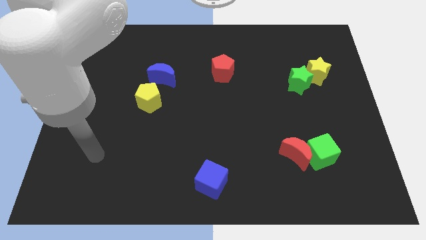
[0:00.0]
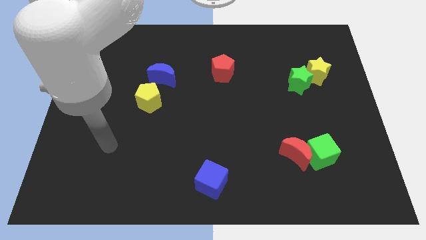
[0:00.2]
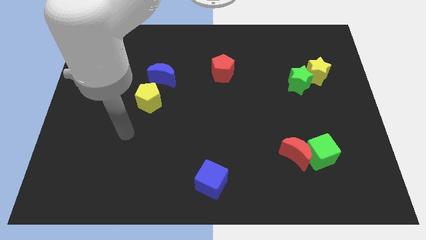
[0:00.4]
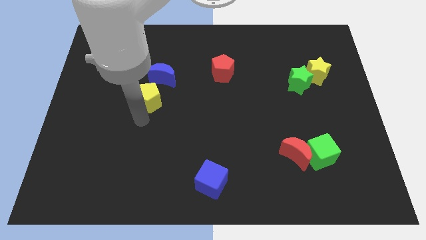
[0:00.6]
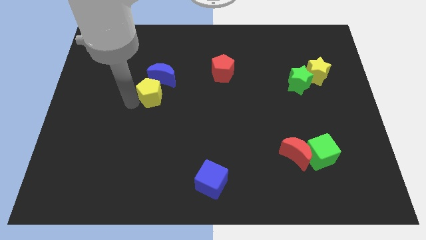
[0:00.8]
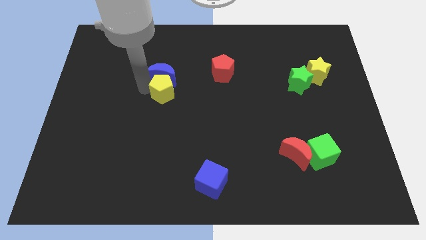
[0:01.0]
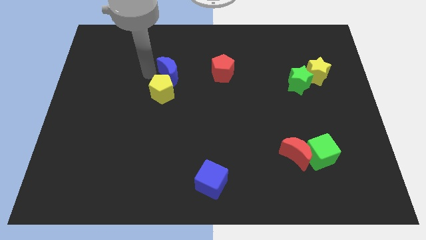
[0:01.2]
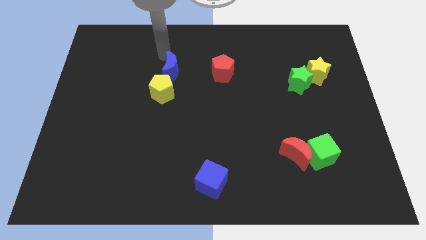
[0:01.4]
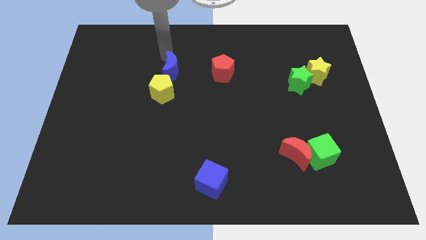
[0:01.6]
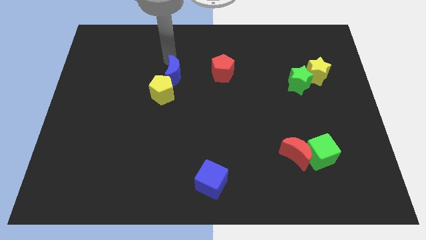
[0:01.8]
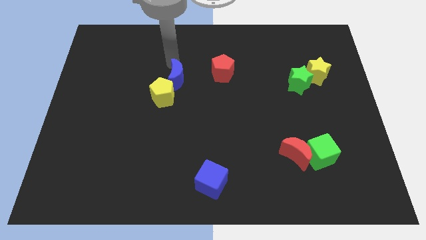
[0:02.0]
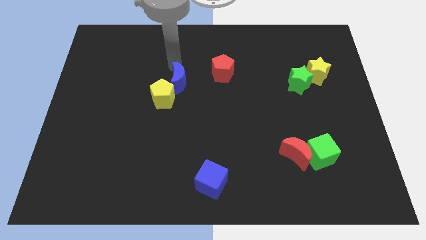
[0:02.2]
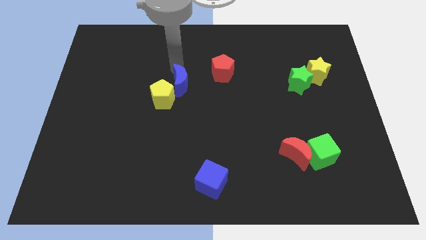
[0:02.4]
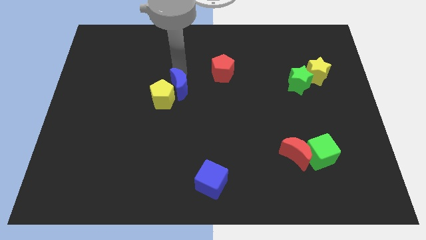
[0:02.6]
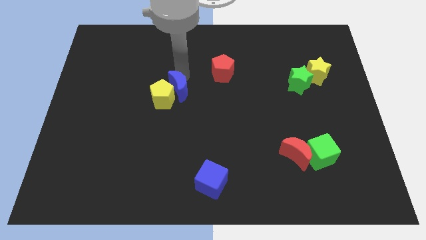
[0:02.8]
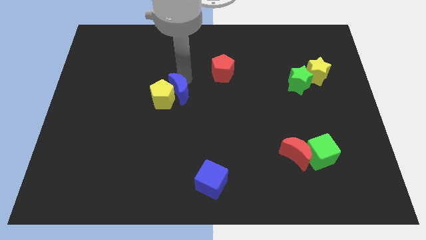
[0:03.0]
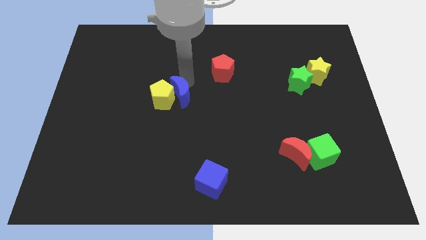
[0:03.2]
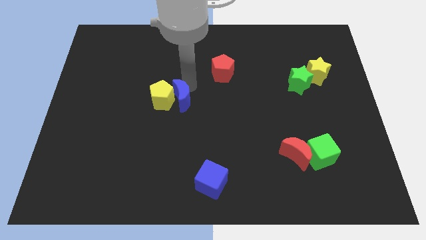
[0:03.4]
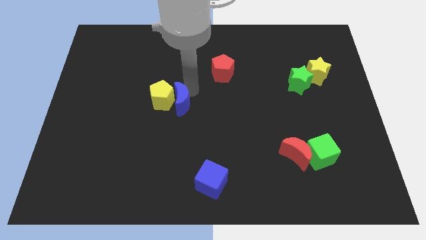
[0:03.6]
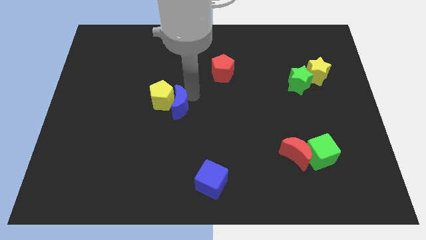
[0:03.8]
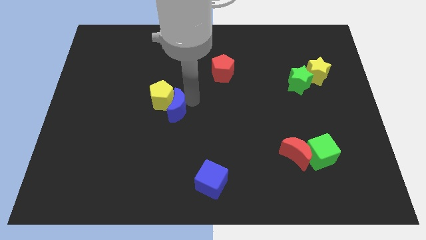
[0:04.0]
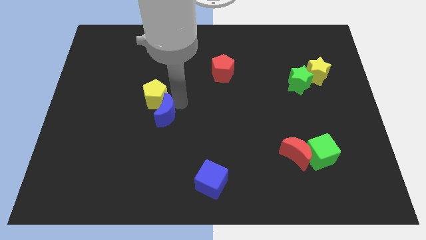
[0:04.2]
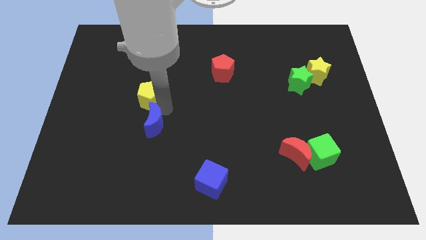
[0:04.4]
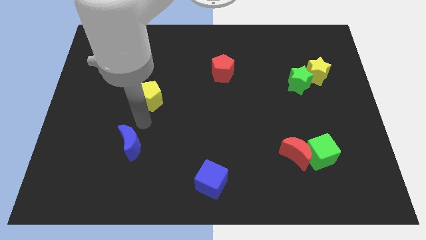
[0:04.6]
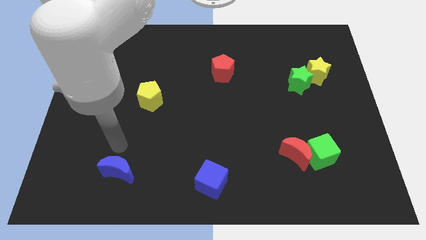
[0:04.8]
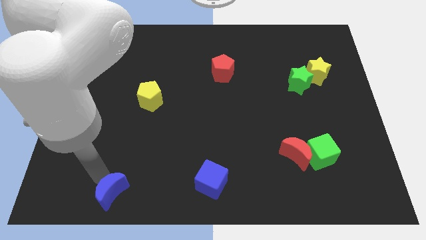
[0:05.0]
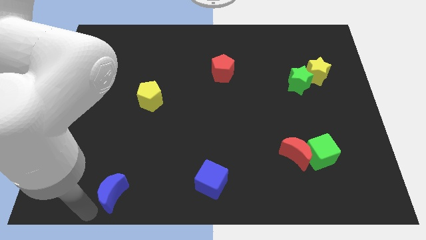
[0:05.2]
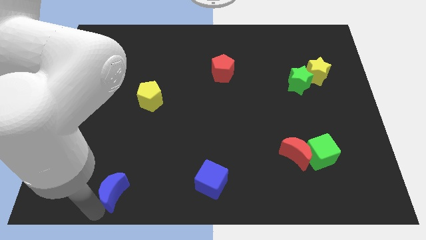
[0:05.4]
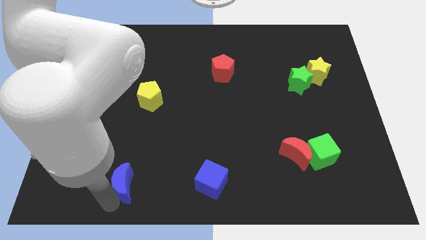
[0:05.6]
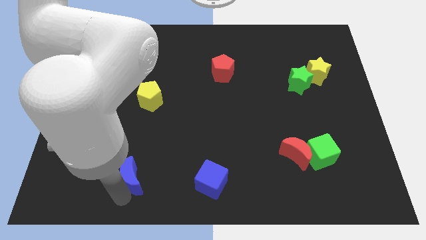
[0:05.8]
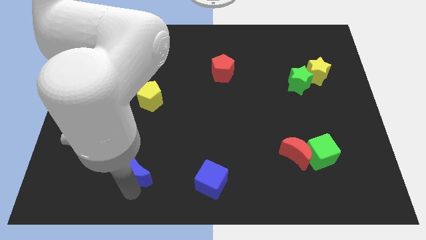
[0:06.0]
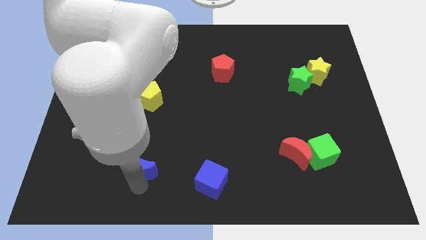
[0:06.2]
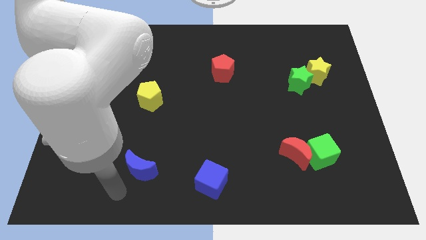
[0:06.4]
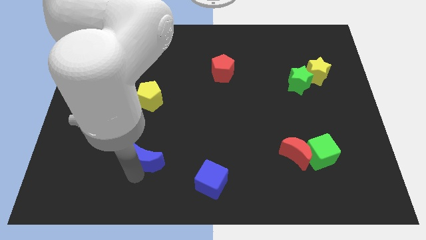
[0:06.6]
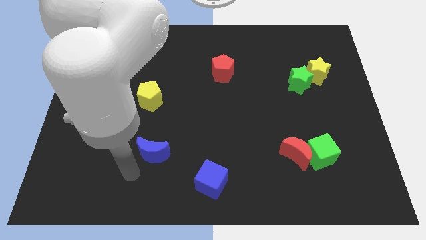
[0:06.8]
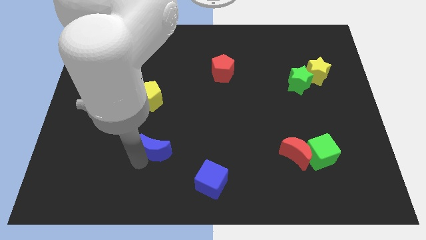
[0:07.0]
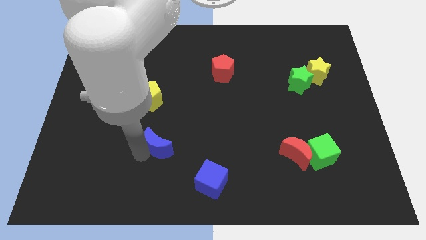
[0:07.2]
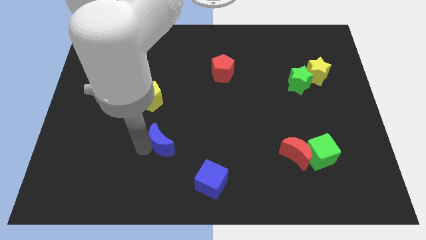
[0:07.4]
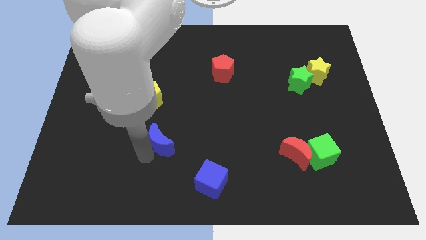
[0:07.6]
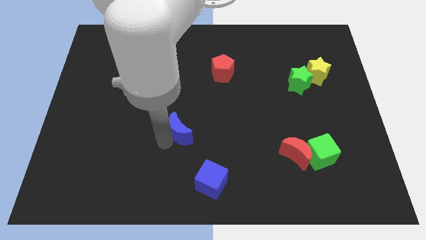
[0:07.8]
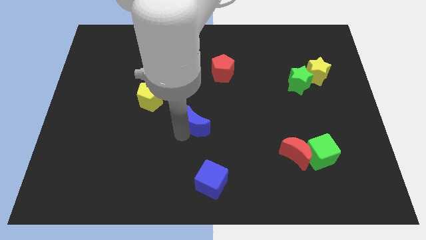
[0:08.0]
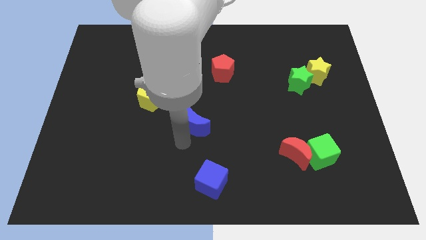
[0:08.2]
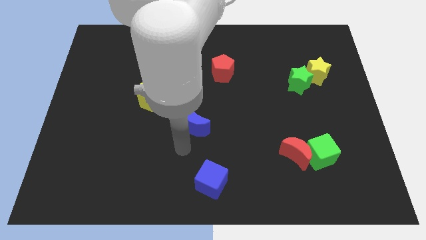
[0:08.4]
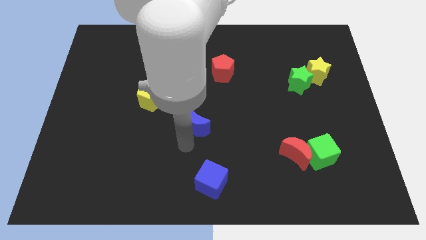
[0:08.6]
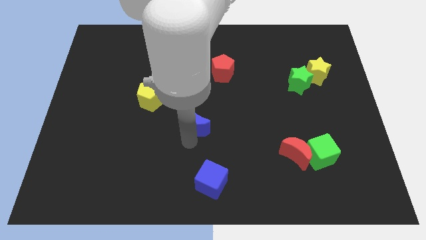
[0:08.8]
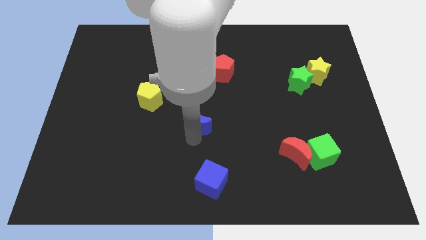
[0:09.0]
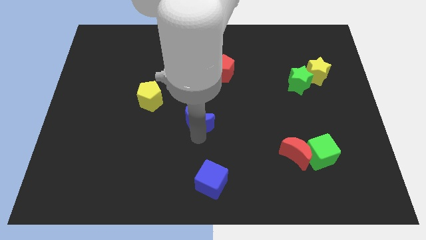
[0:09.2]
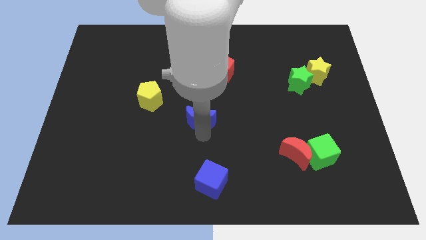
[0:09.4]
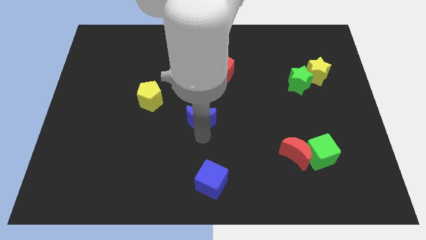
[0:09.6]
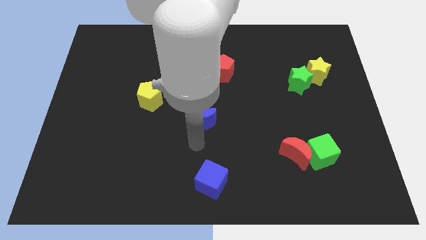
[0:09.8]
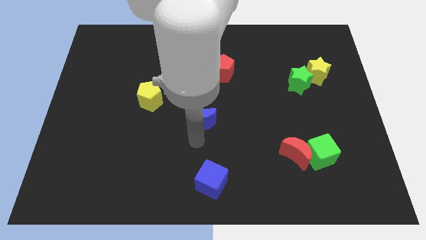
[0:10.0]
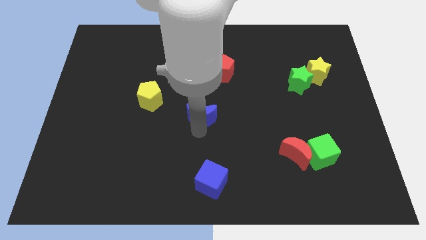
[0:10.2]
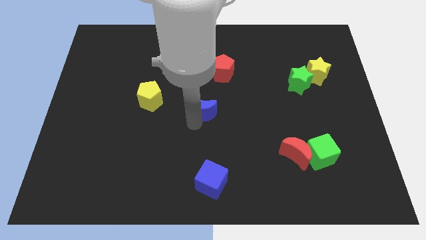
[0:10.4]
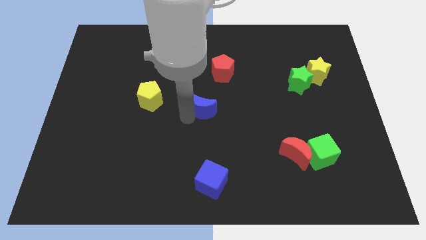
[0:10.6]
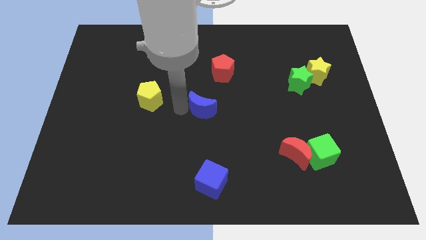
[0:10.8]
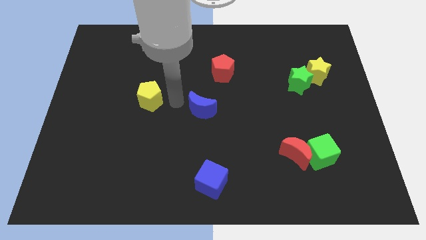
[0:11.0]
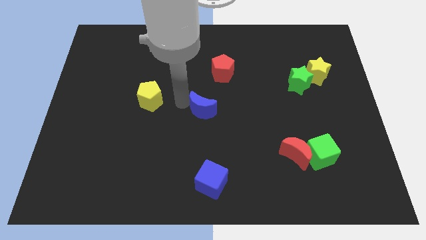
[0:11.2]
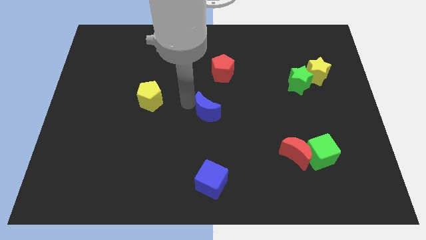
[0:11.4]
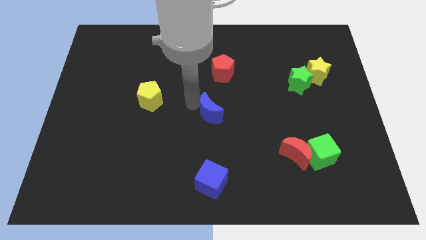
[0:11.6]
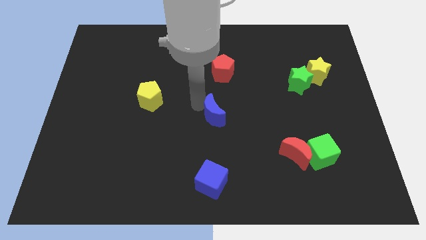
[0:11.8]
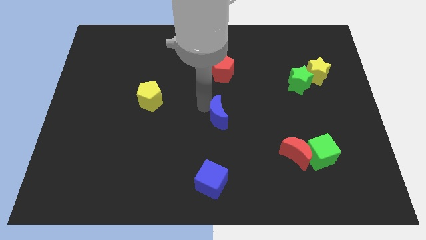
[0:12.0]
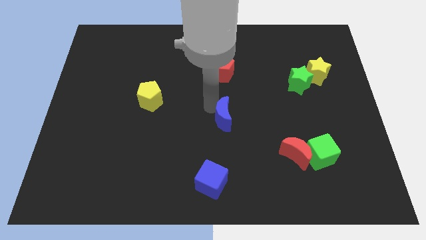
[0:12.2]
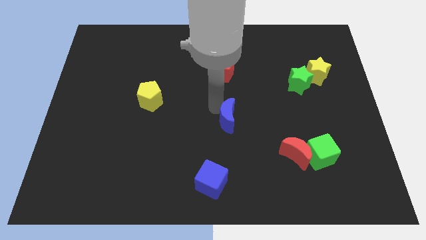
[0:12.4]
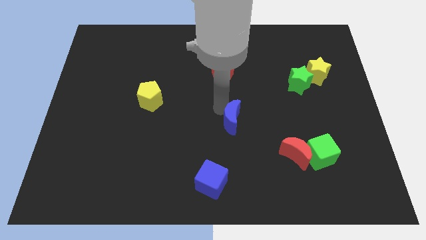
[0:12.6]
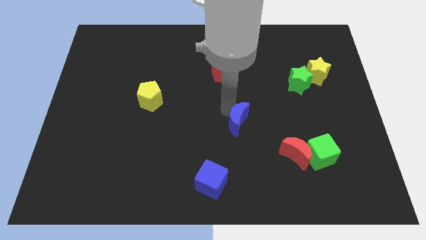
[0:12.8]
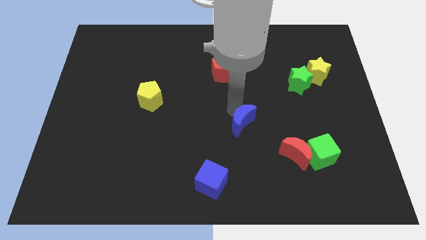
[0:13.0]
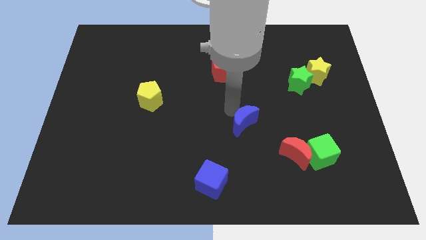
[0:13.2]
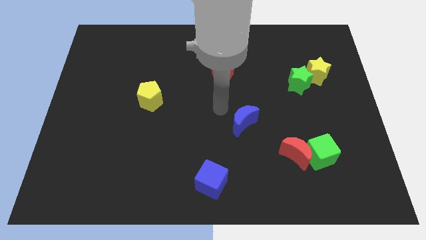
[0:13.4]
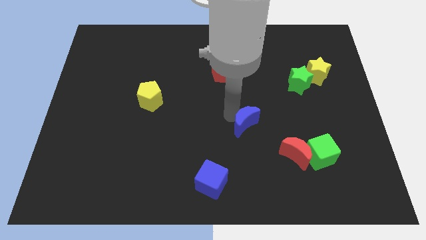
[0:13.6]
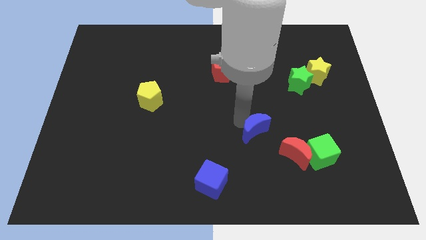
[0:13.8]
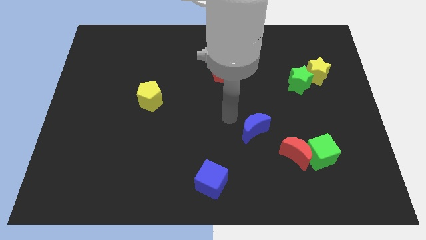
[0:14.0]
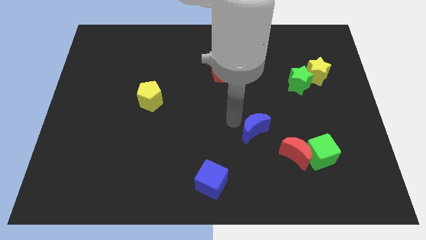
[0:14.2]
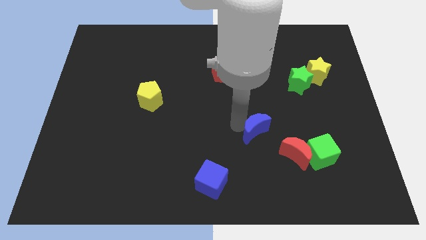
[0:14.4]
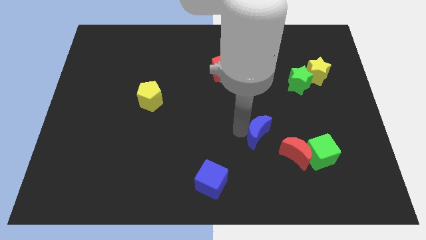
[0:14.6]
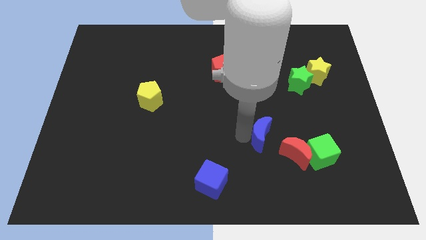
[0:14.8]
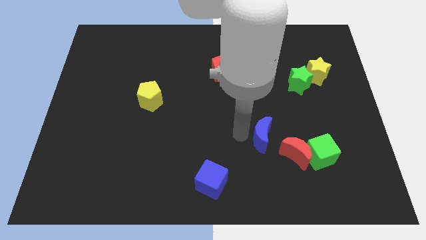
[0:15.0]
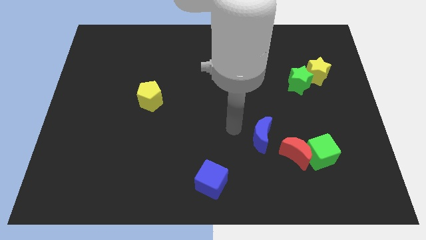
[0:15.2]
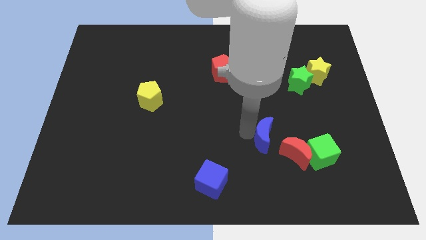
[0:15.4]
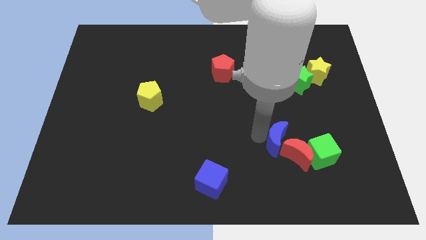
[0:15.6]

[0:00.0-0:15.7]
put the blue moon close to the red moon

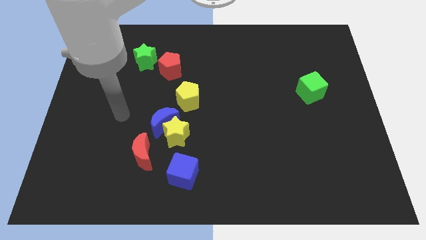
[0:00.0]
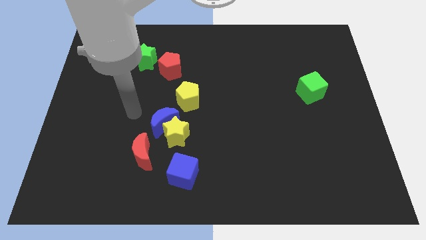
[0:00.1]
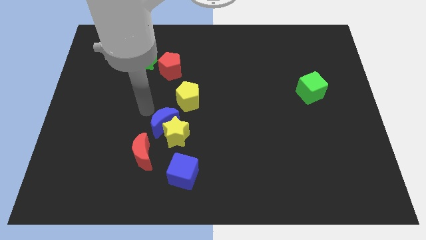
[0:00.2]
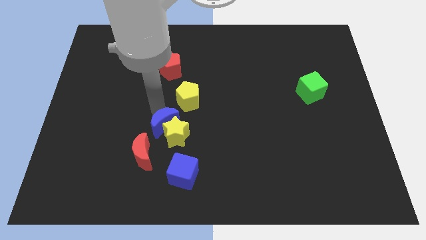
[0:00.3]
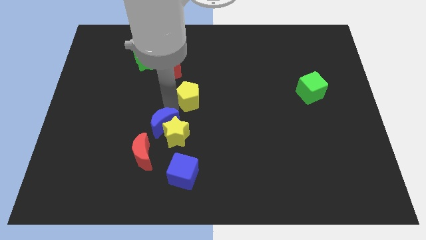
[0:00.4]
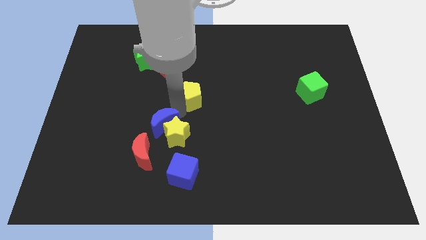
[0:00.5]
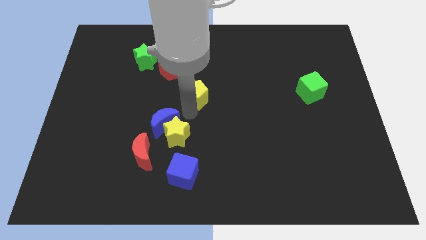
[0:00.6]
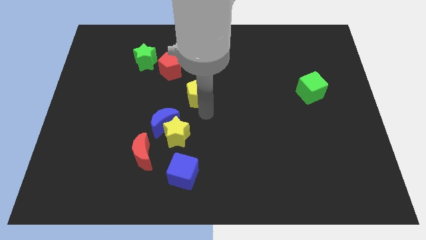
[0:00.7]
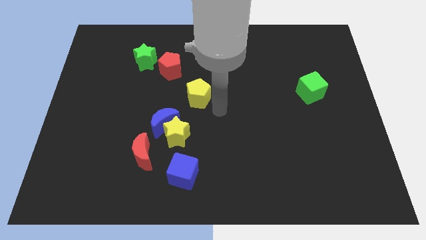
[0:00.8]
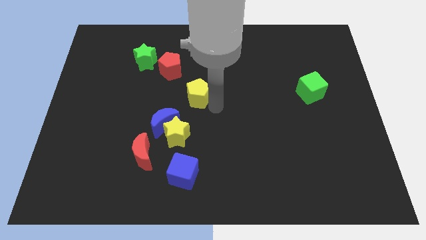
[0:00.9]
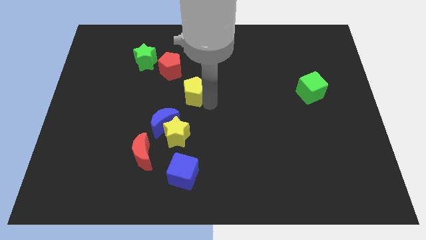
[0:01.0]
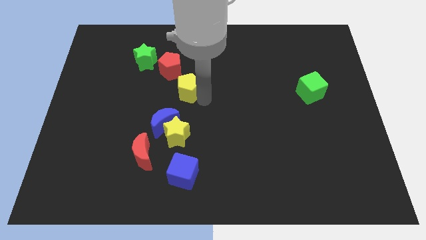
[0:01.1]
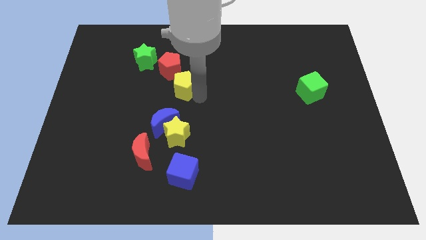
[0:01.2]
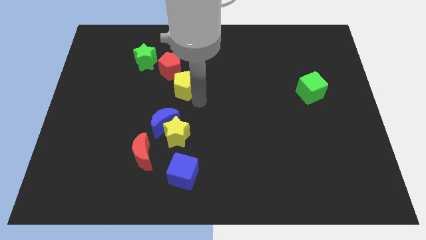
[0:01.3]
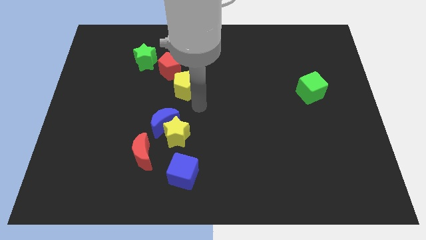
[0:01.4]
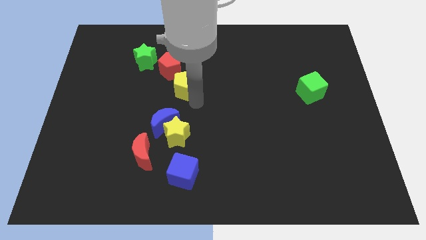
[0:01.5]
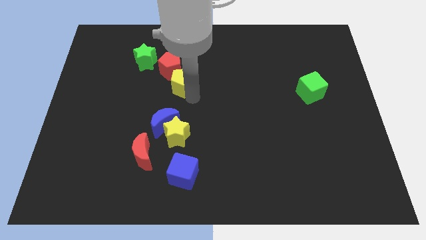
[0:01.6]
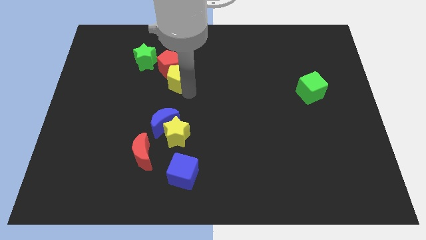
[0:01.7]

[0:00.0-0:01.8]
move the yellow pentagon towards the red pentagon
